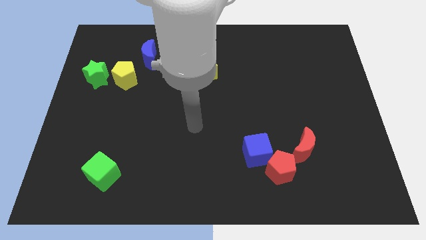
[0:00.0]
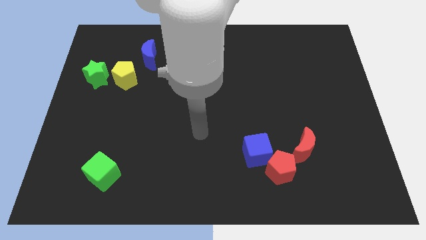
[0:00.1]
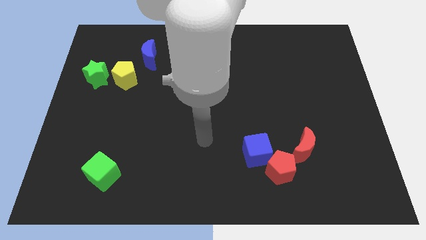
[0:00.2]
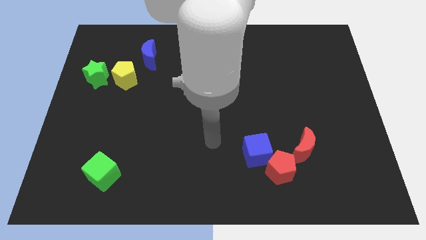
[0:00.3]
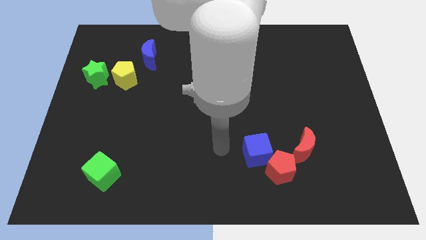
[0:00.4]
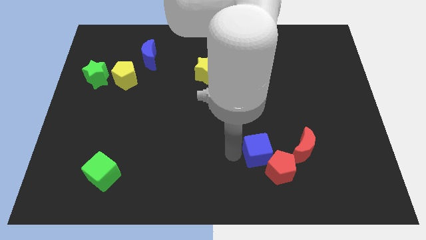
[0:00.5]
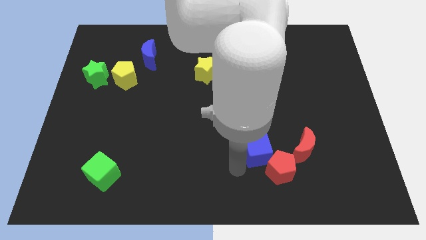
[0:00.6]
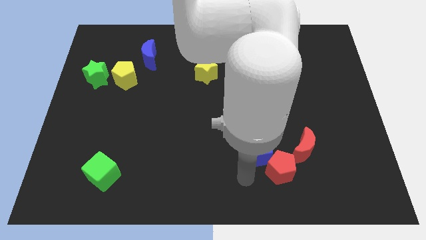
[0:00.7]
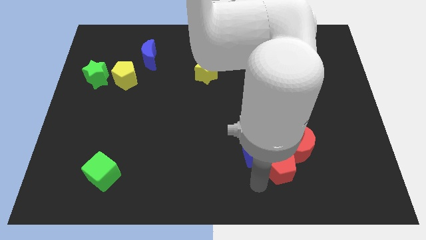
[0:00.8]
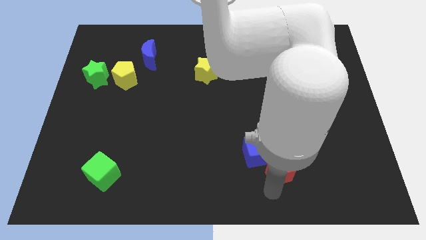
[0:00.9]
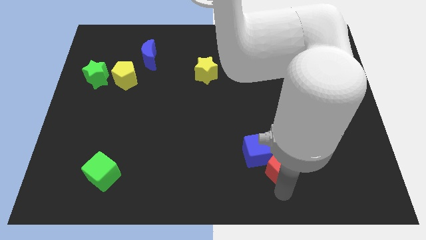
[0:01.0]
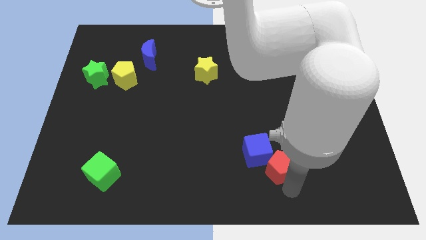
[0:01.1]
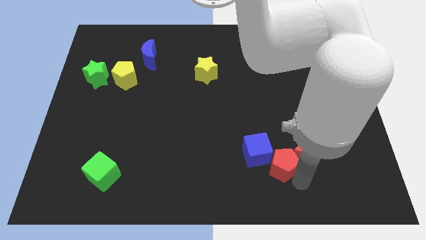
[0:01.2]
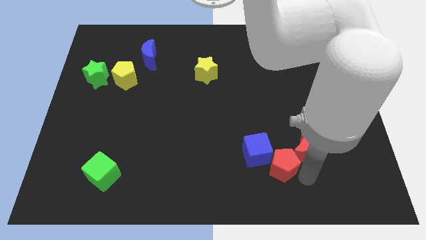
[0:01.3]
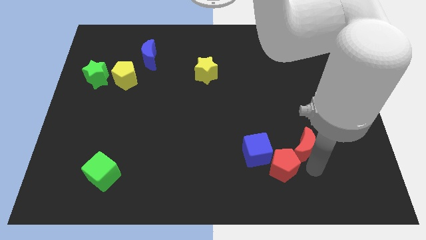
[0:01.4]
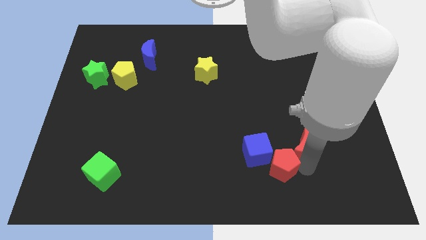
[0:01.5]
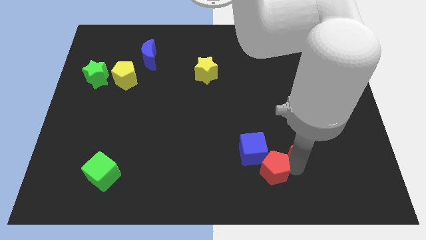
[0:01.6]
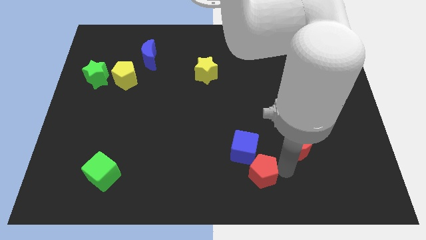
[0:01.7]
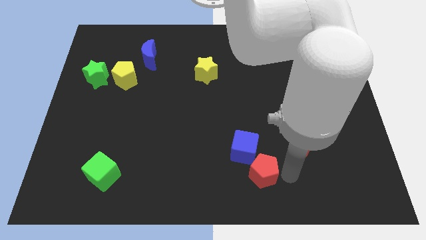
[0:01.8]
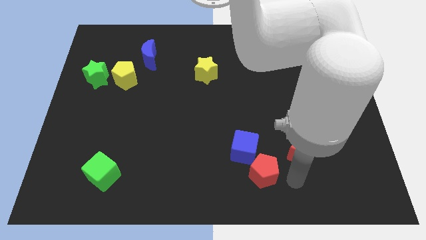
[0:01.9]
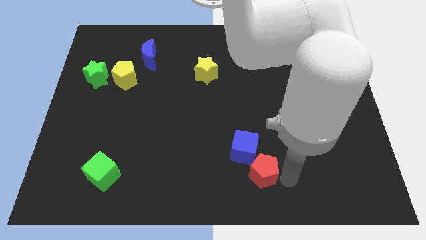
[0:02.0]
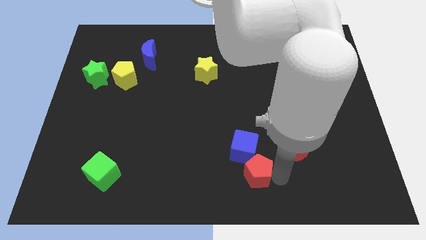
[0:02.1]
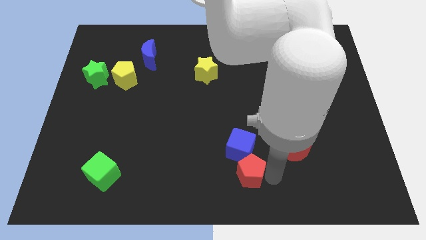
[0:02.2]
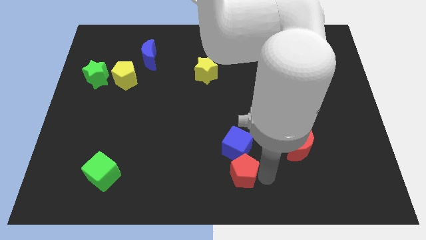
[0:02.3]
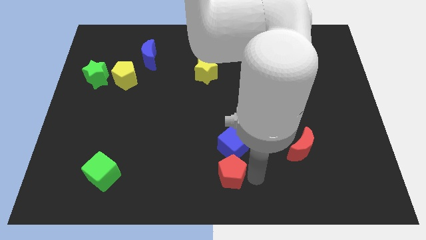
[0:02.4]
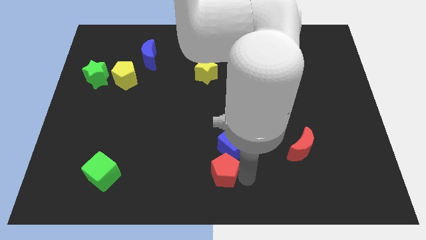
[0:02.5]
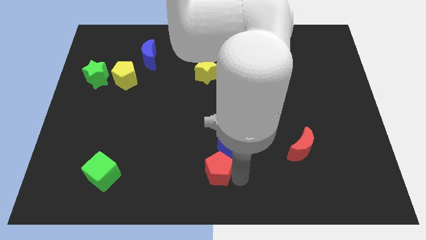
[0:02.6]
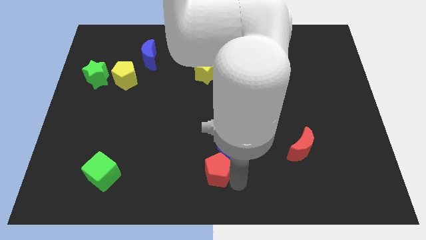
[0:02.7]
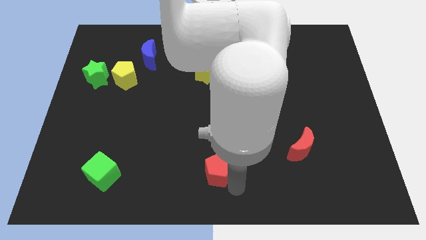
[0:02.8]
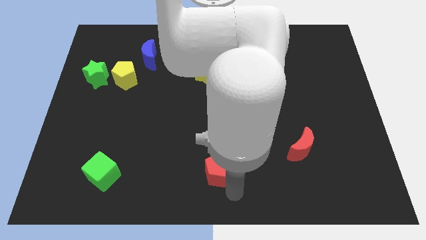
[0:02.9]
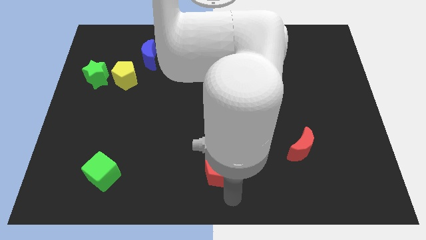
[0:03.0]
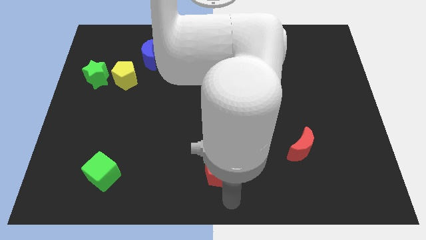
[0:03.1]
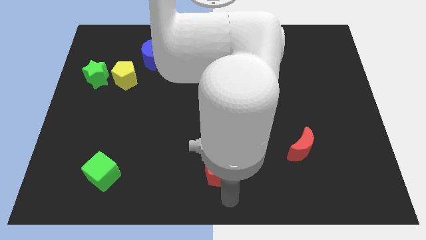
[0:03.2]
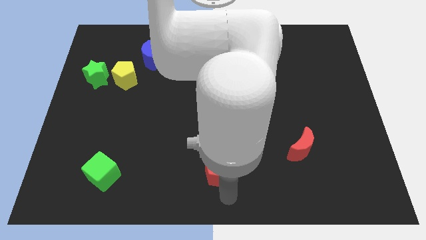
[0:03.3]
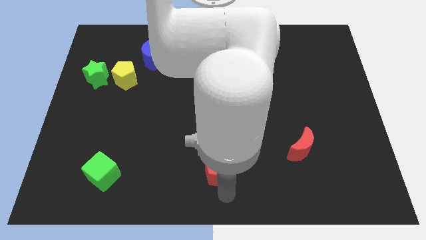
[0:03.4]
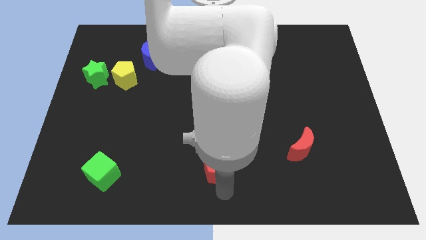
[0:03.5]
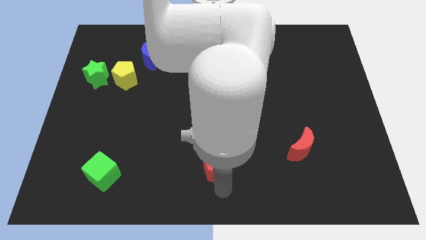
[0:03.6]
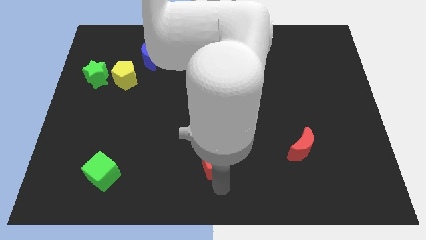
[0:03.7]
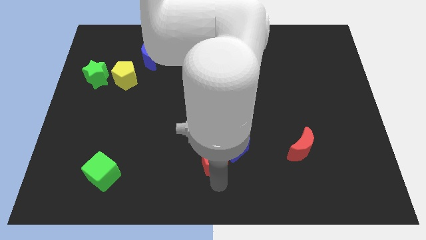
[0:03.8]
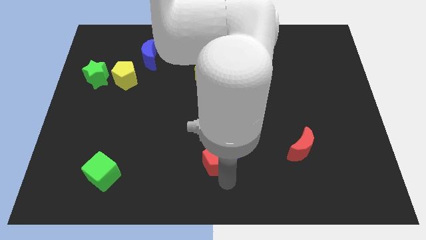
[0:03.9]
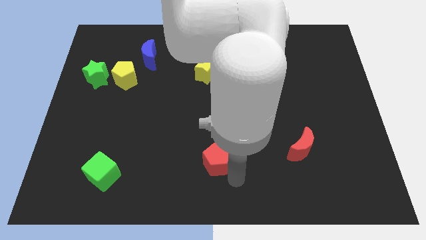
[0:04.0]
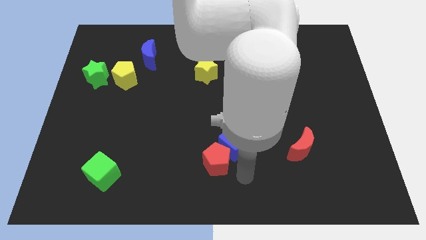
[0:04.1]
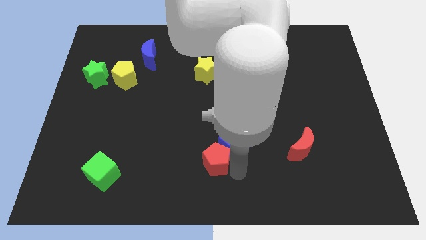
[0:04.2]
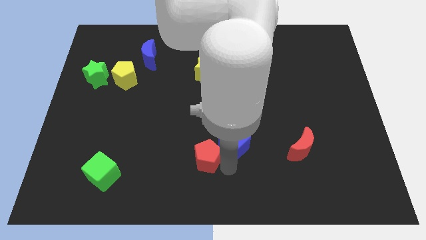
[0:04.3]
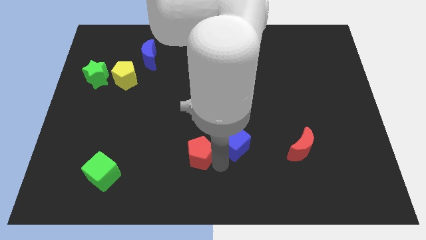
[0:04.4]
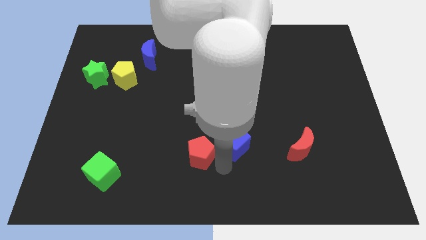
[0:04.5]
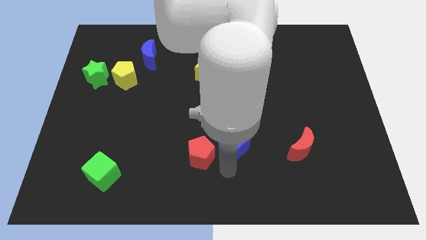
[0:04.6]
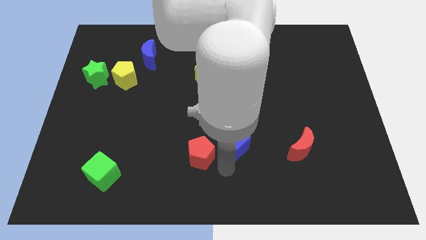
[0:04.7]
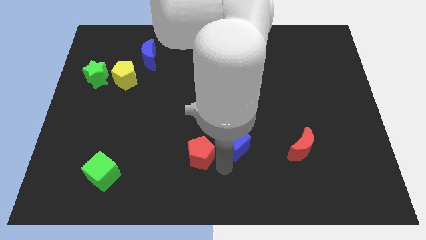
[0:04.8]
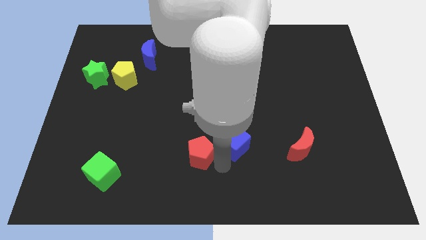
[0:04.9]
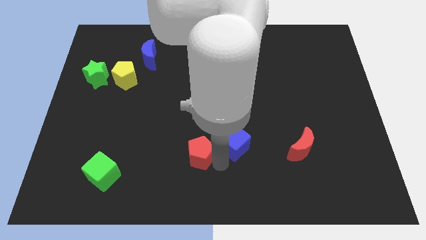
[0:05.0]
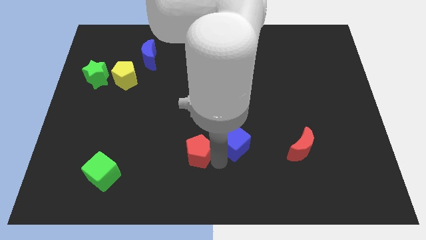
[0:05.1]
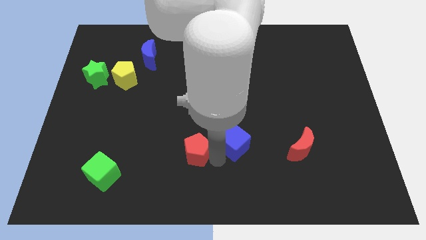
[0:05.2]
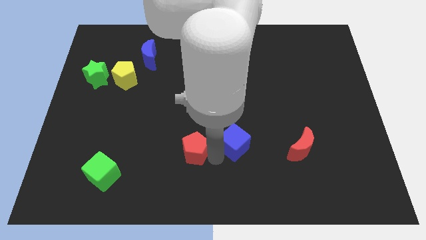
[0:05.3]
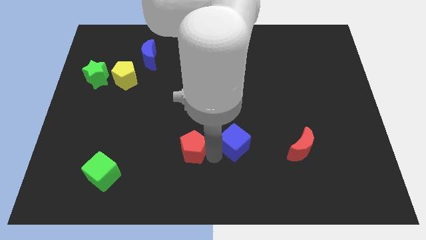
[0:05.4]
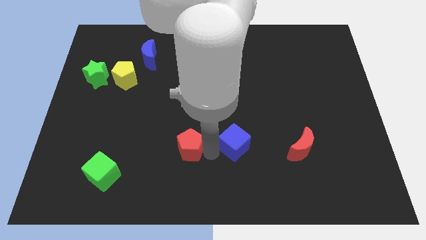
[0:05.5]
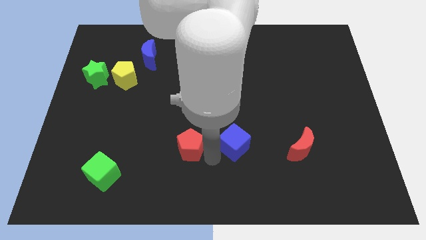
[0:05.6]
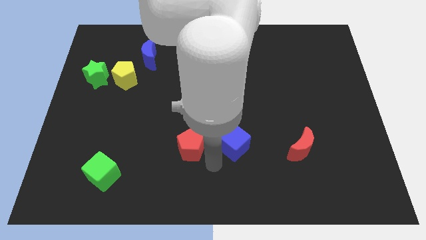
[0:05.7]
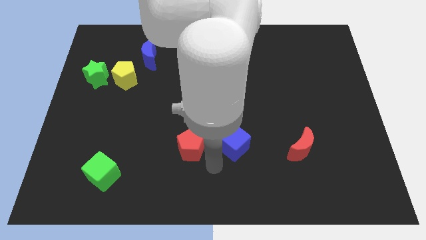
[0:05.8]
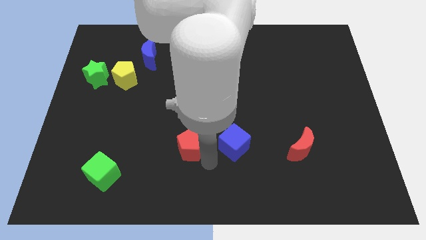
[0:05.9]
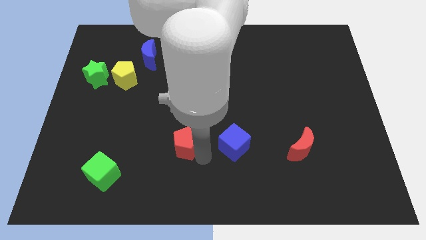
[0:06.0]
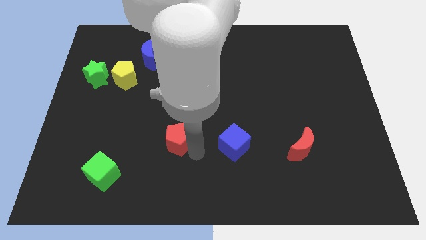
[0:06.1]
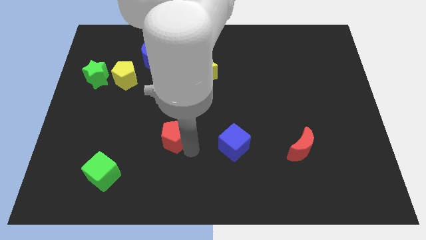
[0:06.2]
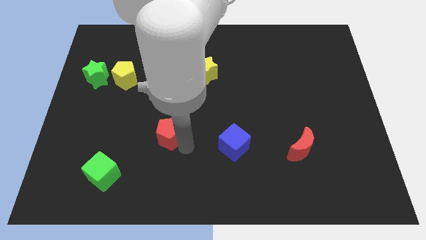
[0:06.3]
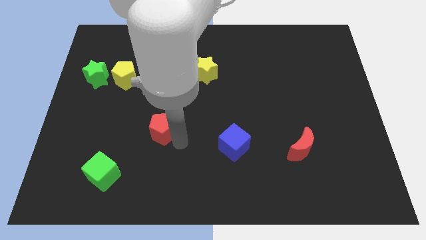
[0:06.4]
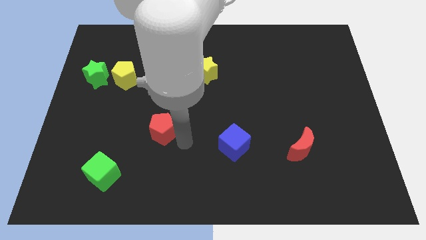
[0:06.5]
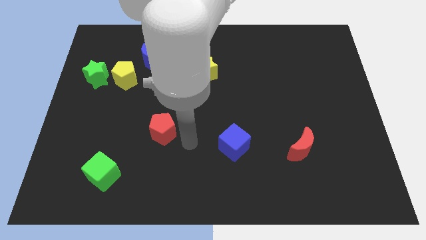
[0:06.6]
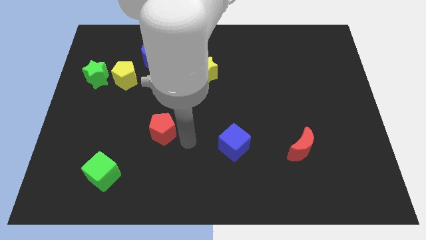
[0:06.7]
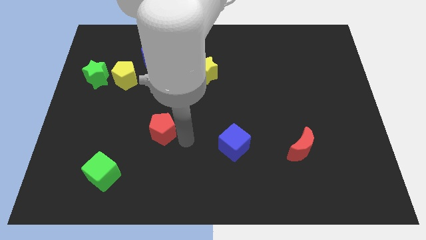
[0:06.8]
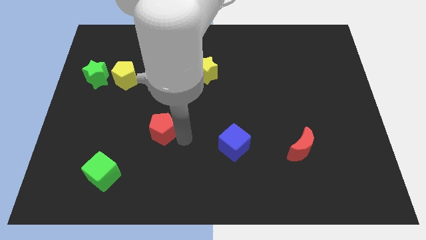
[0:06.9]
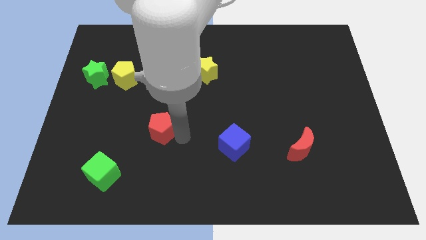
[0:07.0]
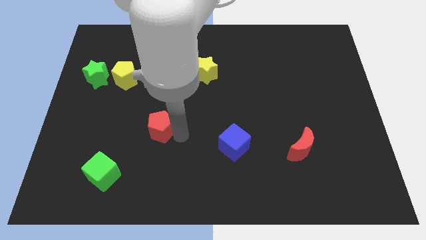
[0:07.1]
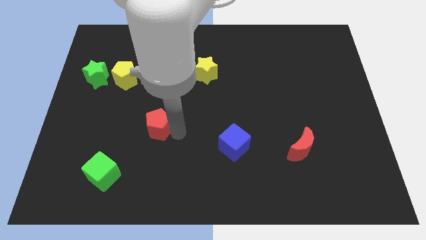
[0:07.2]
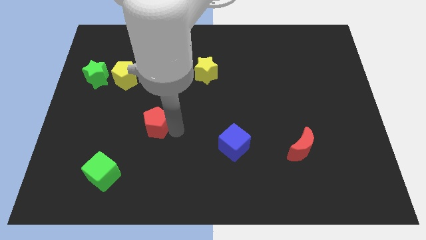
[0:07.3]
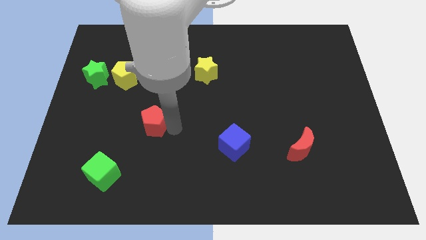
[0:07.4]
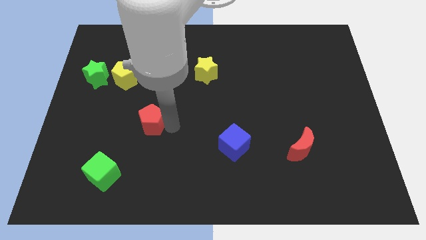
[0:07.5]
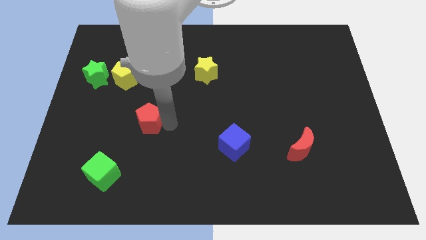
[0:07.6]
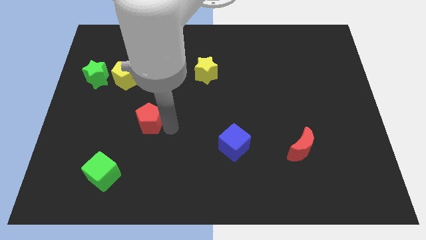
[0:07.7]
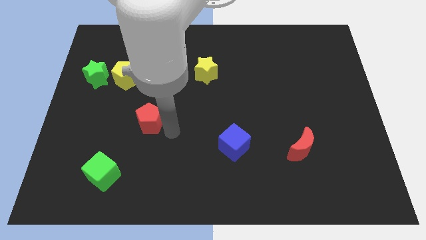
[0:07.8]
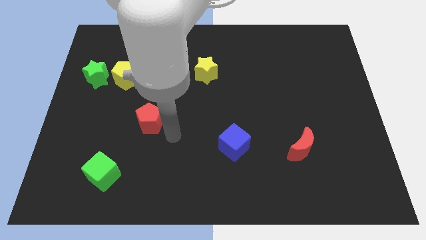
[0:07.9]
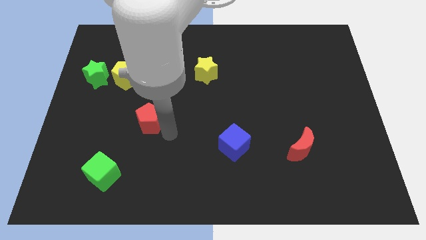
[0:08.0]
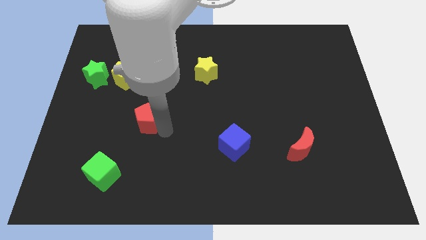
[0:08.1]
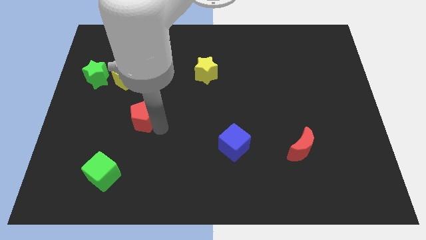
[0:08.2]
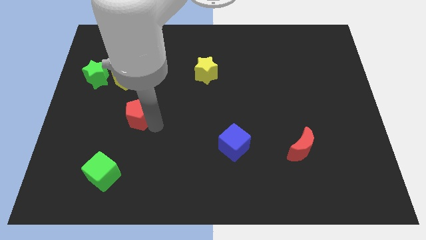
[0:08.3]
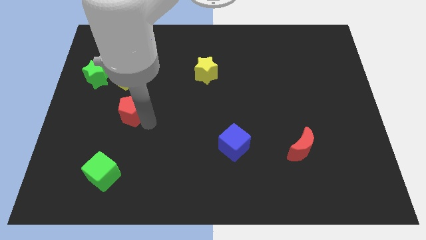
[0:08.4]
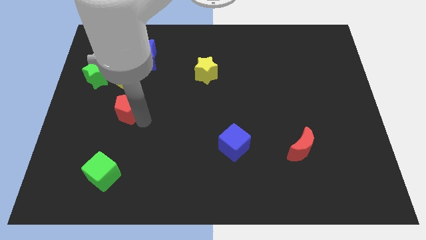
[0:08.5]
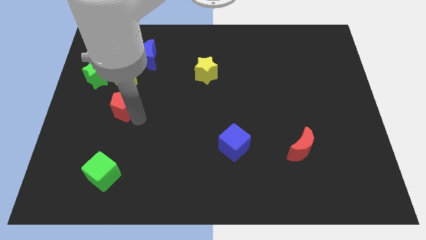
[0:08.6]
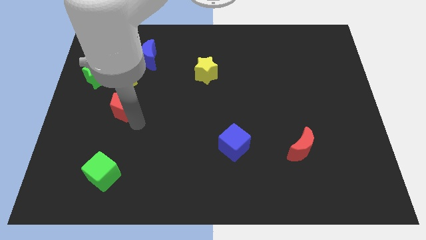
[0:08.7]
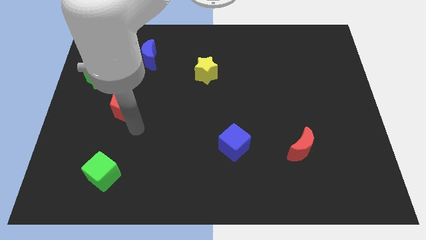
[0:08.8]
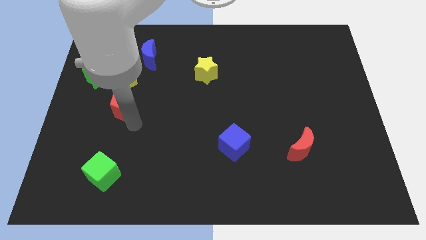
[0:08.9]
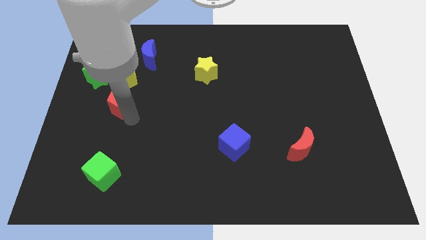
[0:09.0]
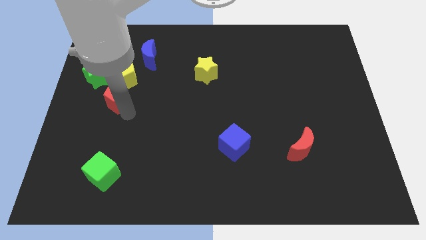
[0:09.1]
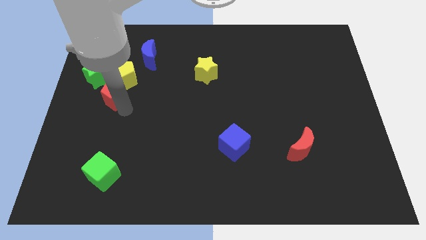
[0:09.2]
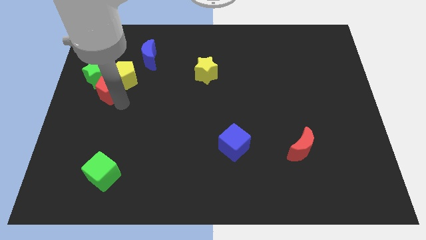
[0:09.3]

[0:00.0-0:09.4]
put the red pentagon to the green star
